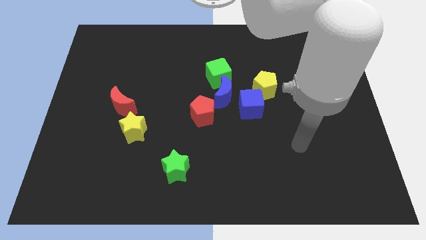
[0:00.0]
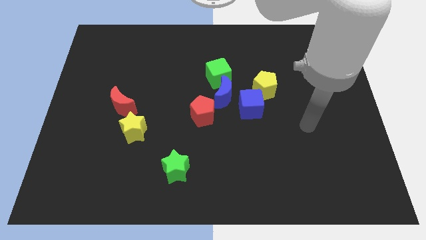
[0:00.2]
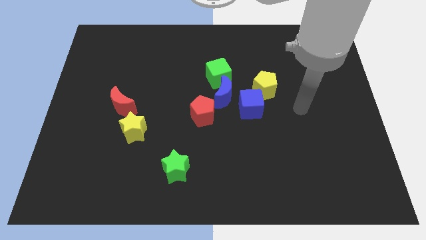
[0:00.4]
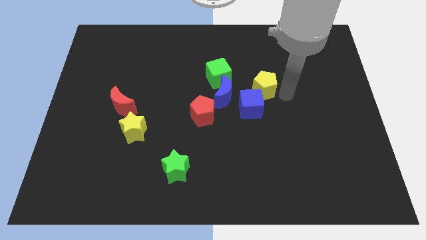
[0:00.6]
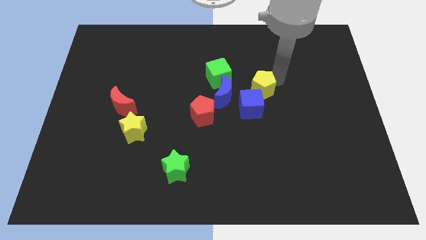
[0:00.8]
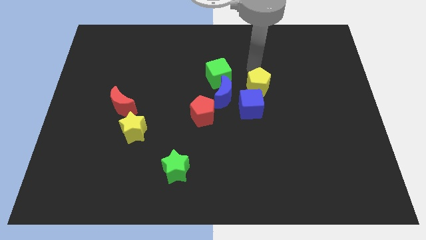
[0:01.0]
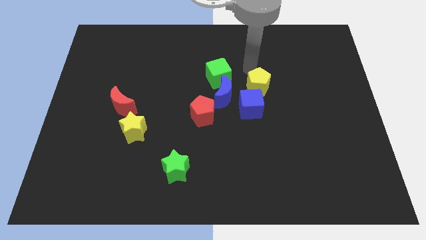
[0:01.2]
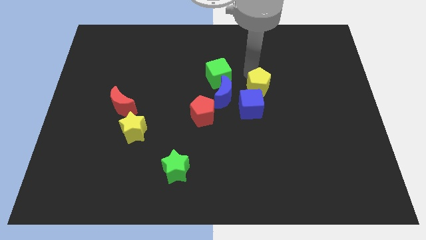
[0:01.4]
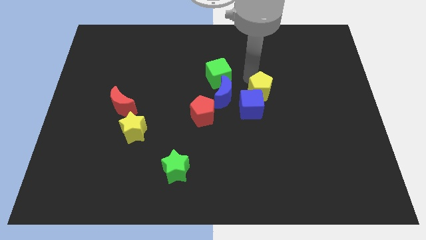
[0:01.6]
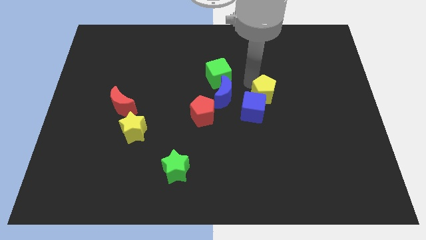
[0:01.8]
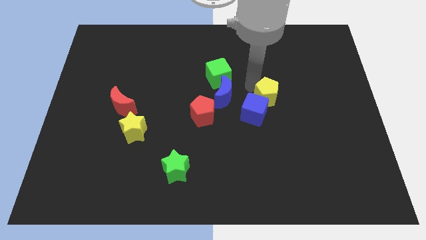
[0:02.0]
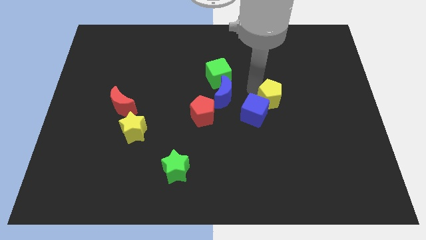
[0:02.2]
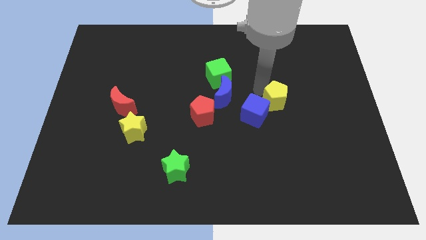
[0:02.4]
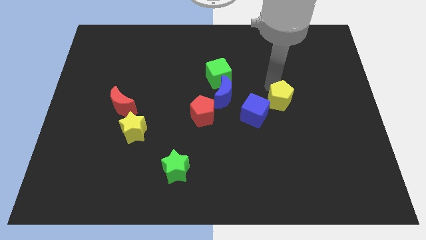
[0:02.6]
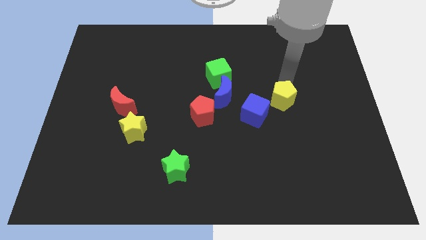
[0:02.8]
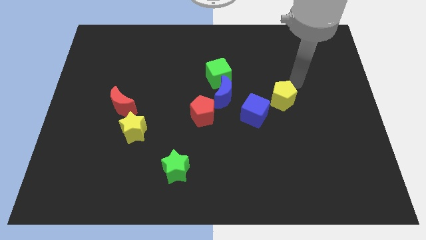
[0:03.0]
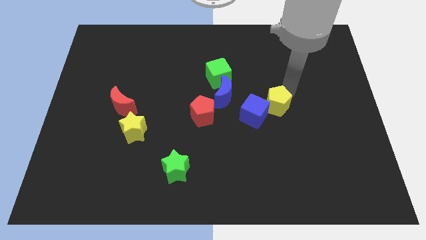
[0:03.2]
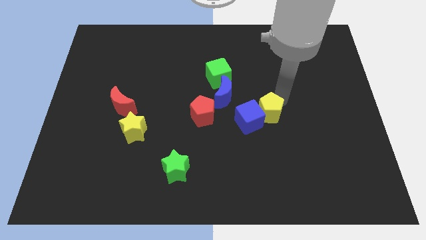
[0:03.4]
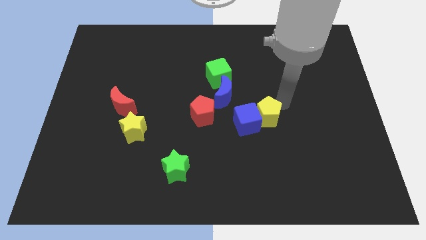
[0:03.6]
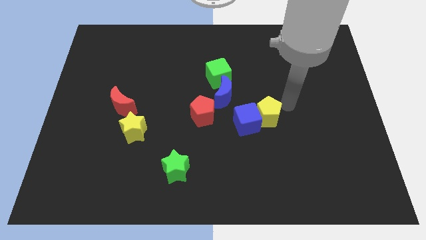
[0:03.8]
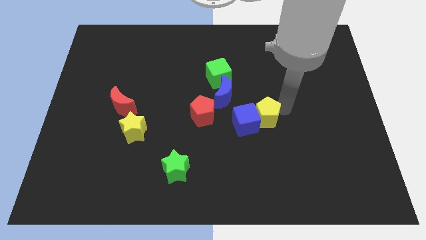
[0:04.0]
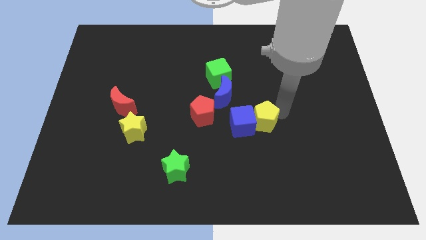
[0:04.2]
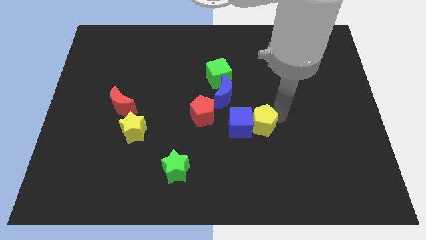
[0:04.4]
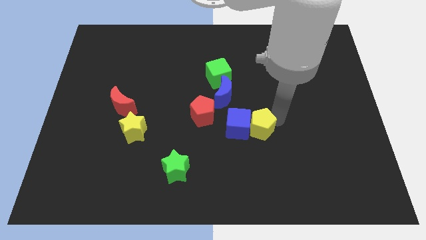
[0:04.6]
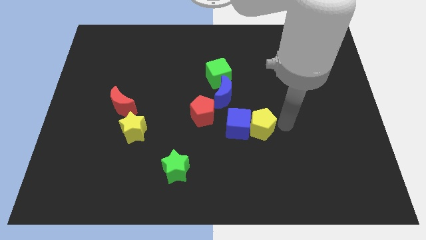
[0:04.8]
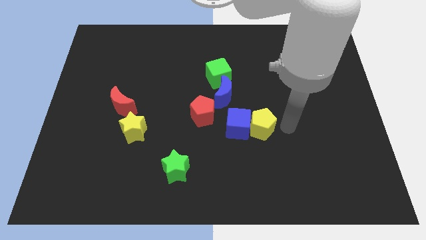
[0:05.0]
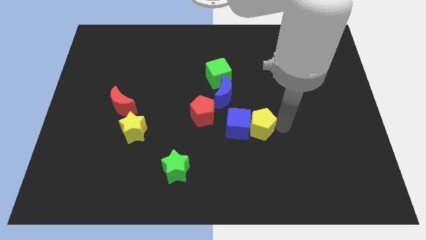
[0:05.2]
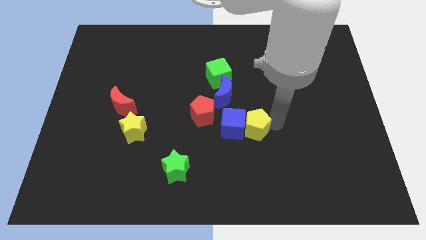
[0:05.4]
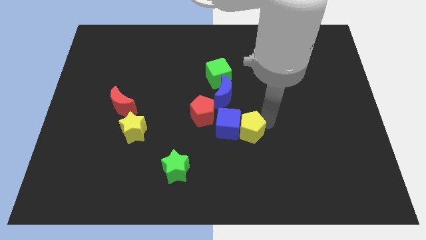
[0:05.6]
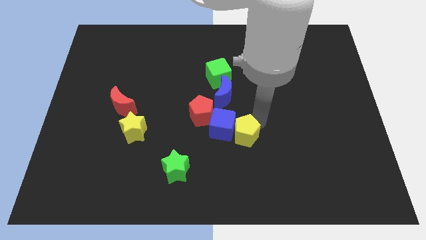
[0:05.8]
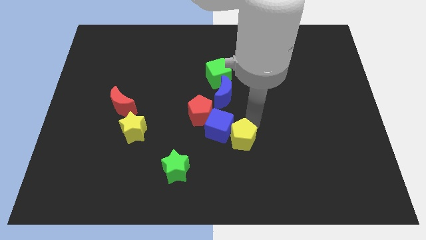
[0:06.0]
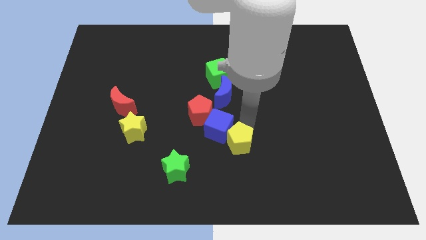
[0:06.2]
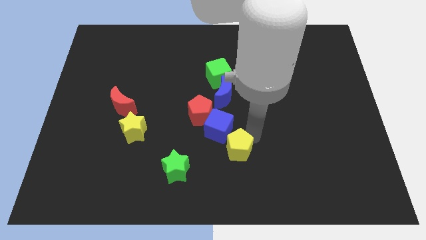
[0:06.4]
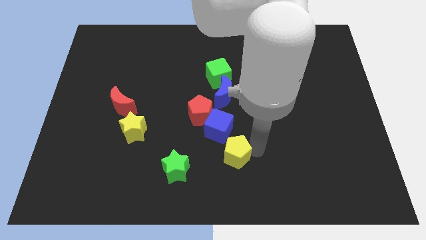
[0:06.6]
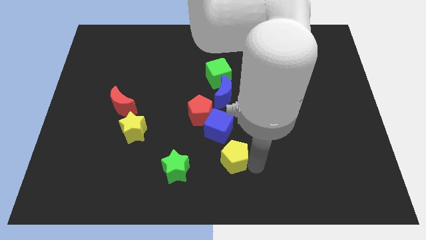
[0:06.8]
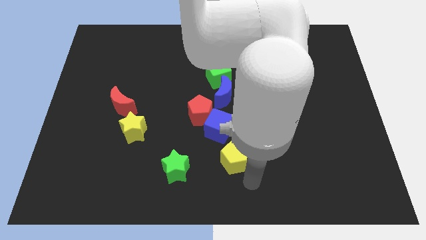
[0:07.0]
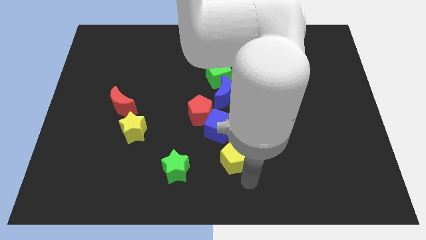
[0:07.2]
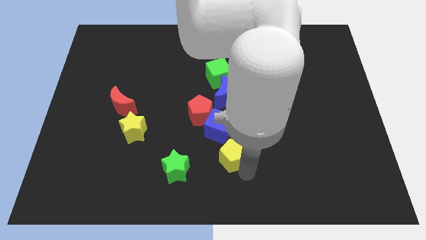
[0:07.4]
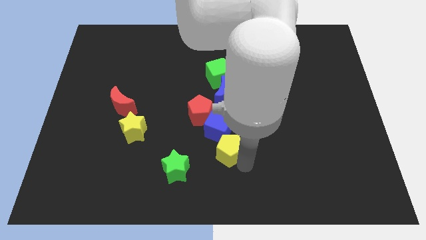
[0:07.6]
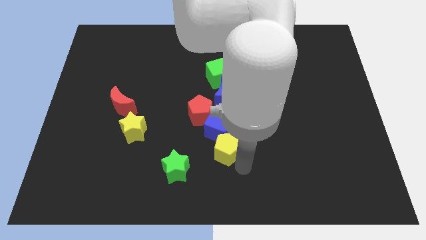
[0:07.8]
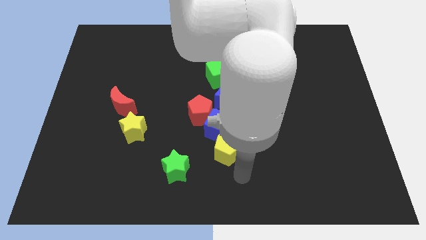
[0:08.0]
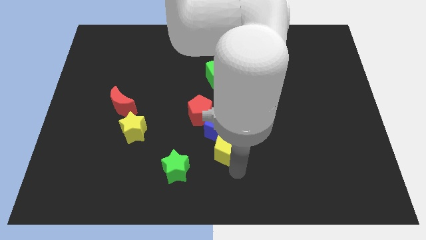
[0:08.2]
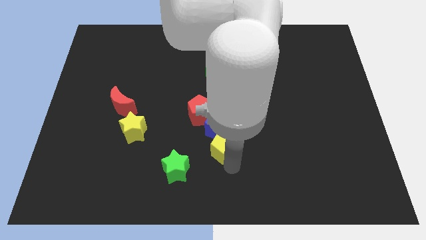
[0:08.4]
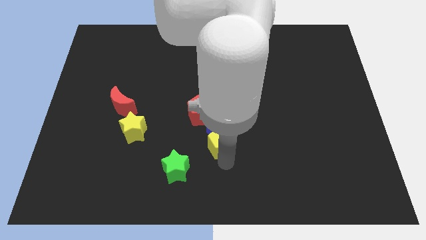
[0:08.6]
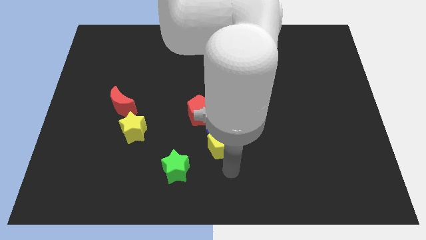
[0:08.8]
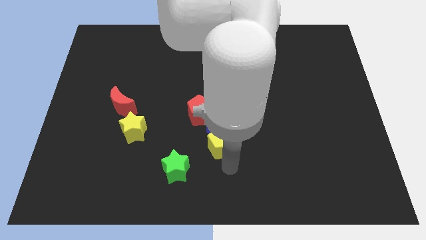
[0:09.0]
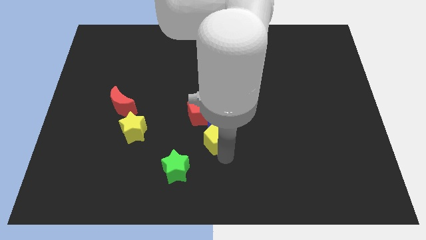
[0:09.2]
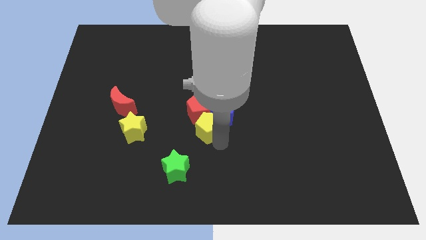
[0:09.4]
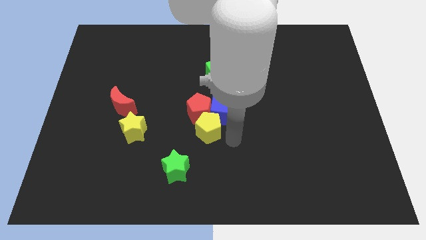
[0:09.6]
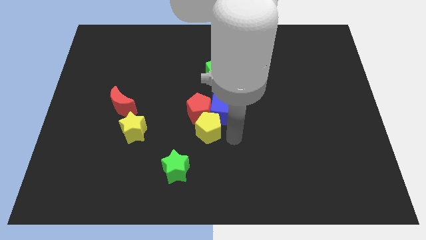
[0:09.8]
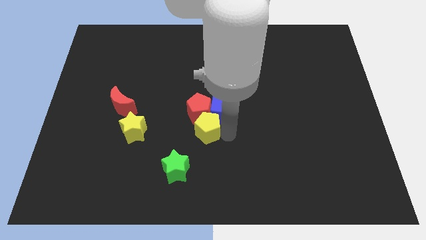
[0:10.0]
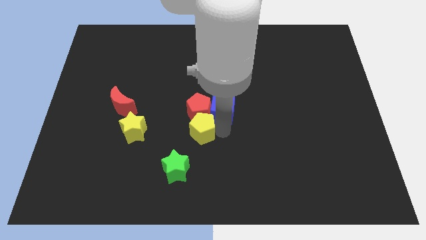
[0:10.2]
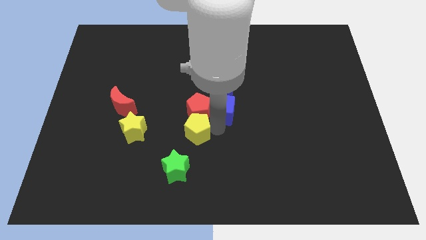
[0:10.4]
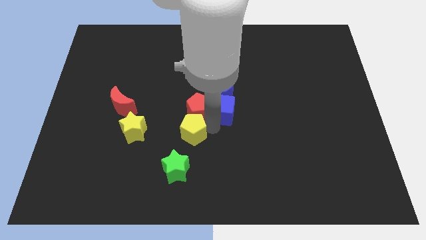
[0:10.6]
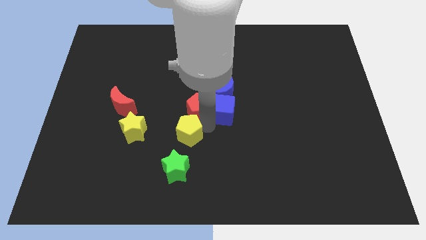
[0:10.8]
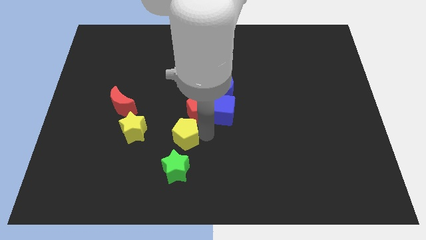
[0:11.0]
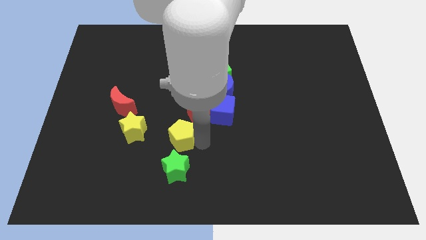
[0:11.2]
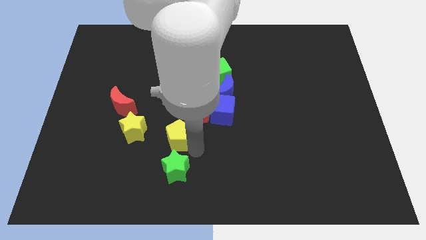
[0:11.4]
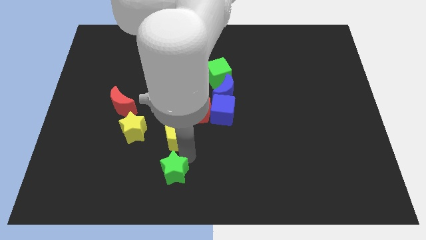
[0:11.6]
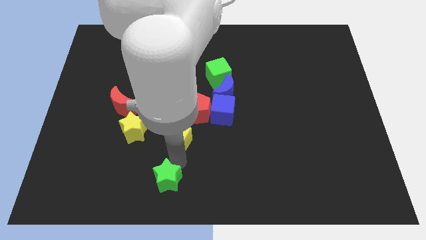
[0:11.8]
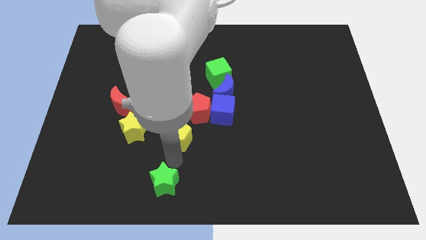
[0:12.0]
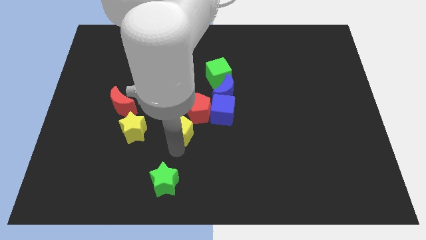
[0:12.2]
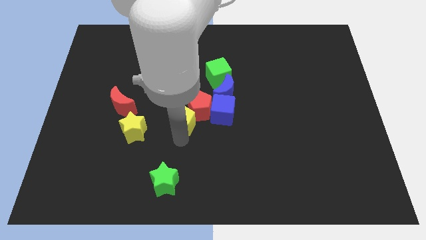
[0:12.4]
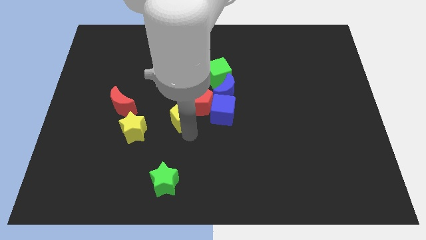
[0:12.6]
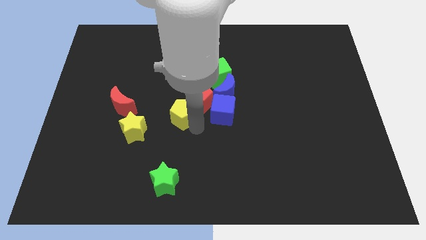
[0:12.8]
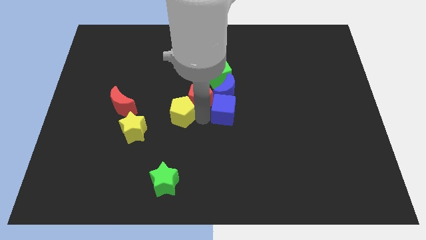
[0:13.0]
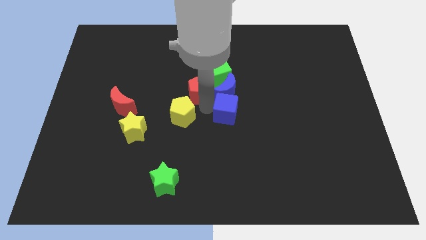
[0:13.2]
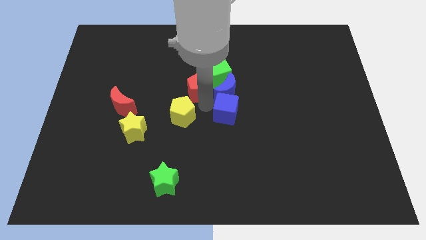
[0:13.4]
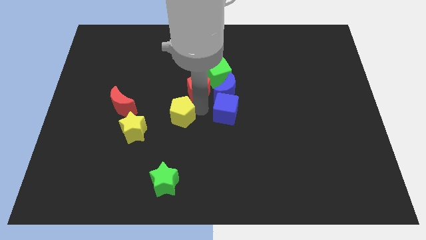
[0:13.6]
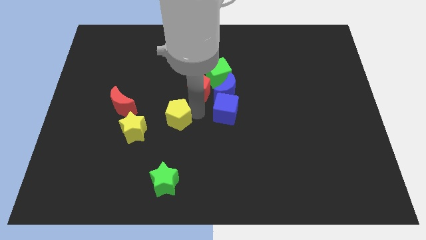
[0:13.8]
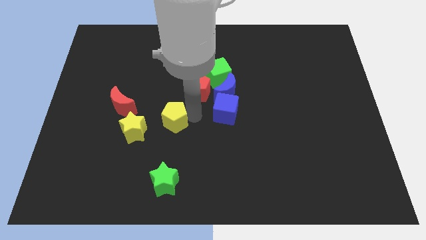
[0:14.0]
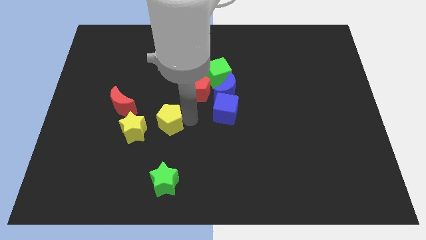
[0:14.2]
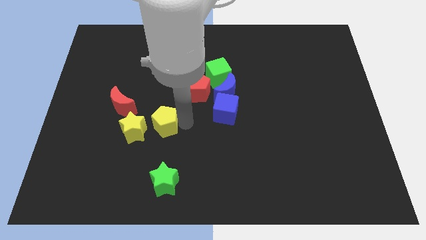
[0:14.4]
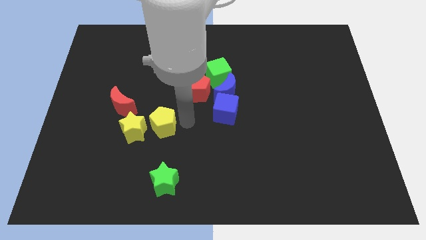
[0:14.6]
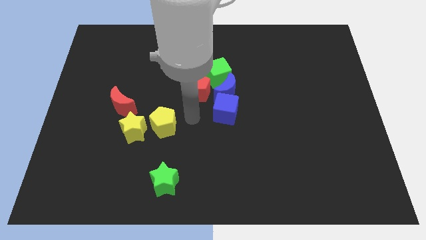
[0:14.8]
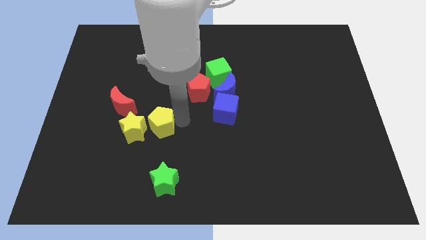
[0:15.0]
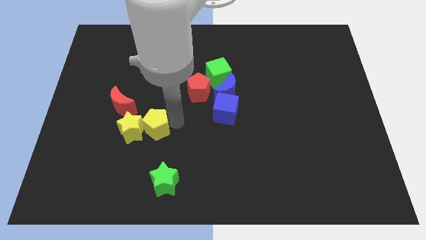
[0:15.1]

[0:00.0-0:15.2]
move the yellow pentagon to the yellow star
